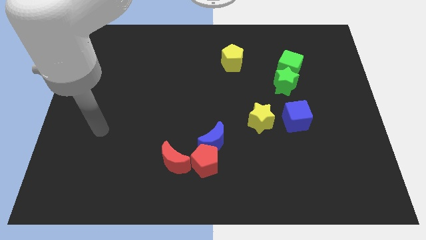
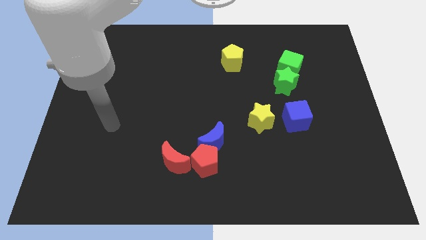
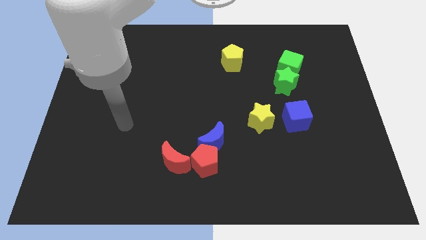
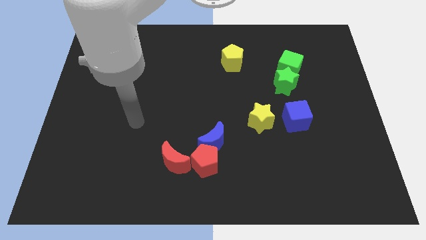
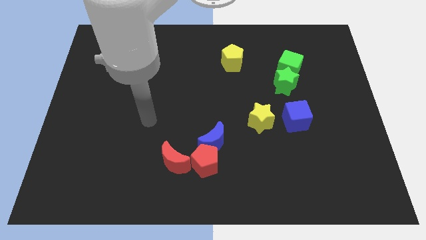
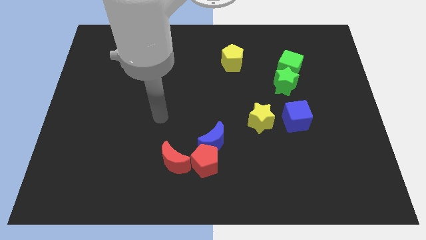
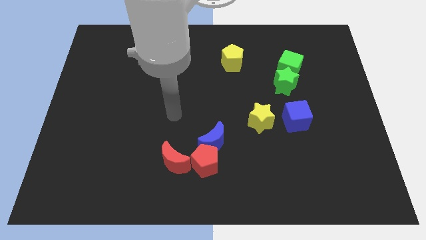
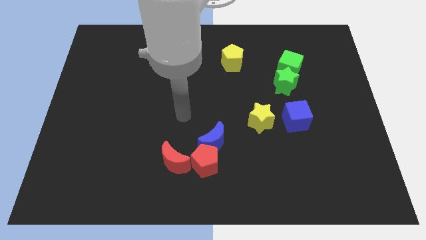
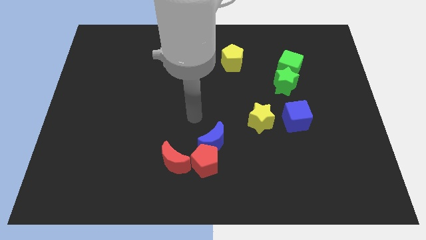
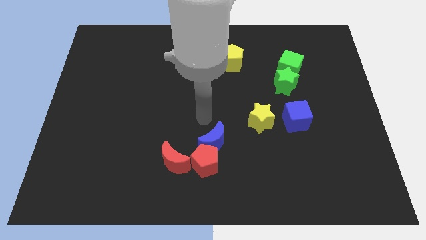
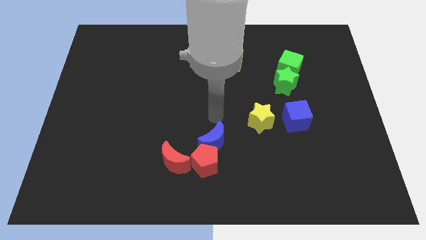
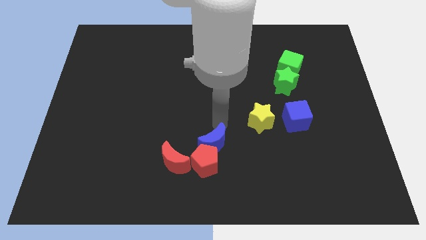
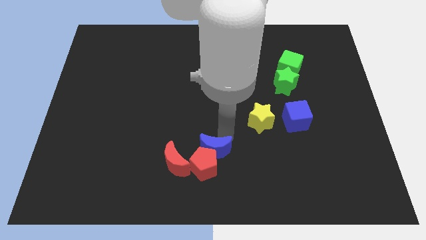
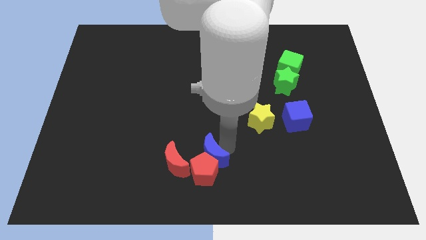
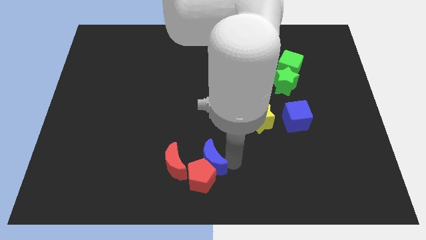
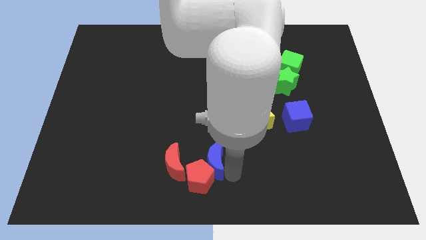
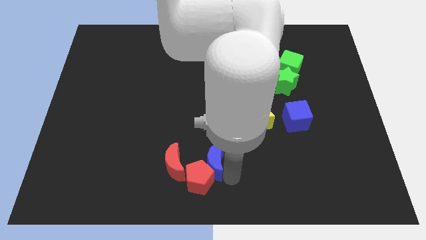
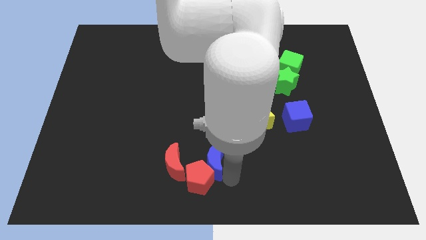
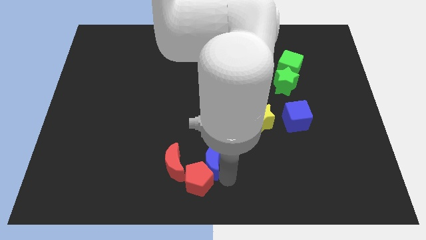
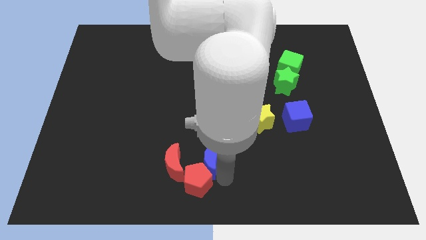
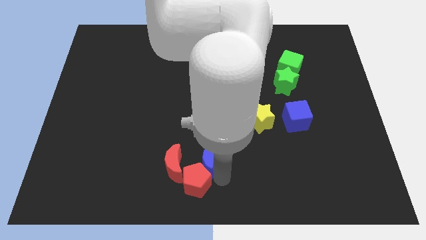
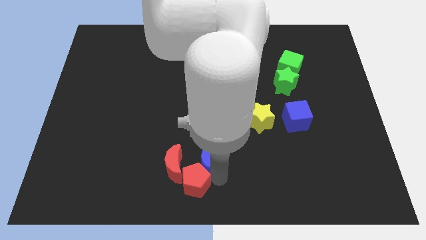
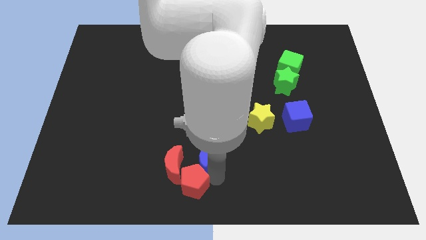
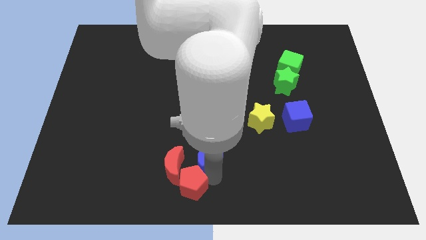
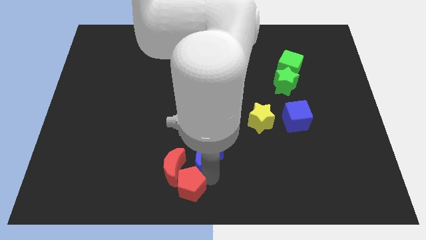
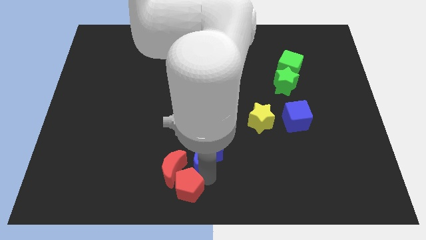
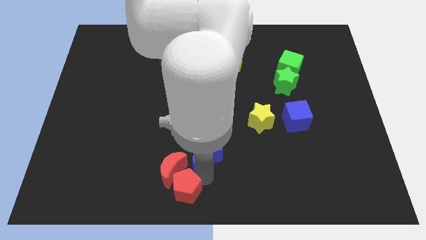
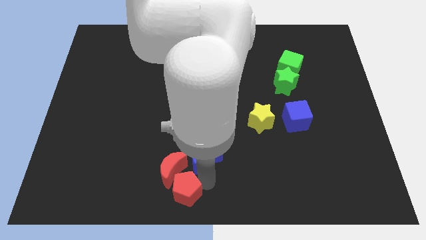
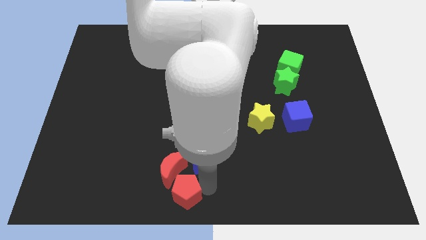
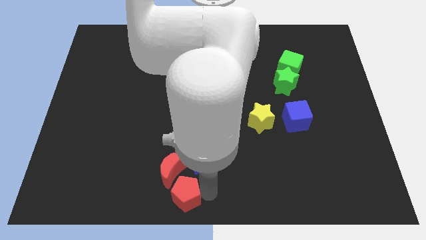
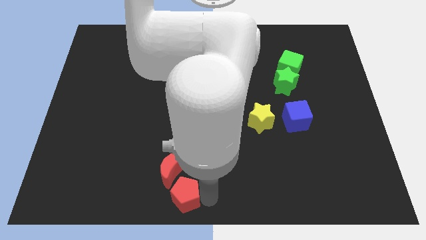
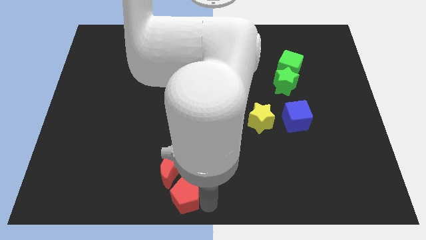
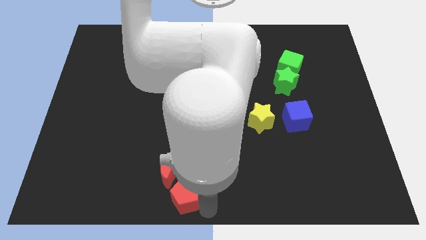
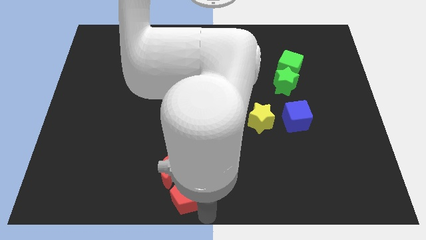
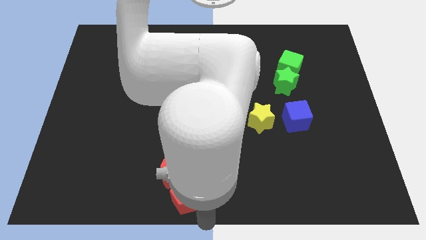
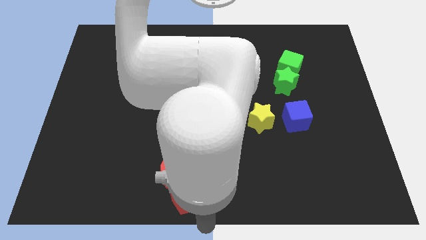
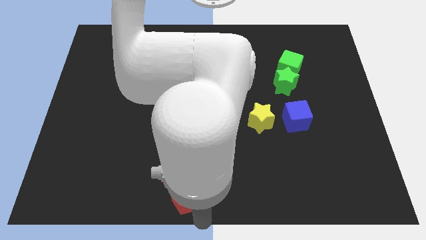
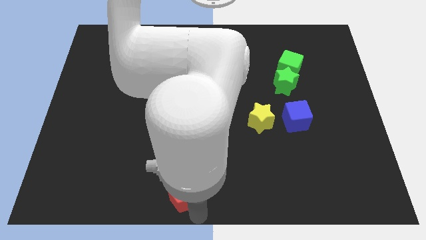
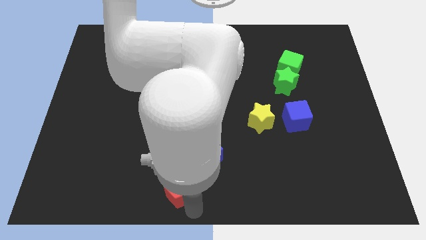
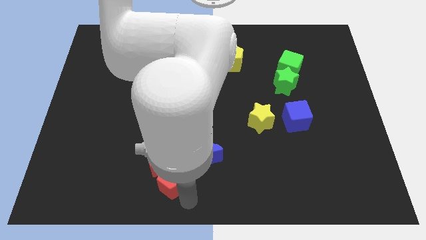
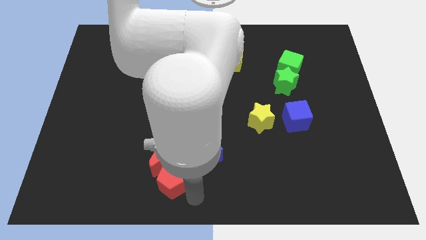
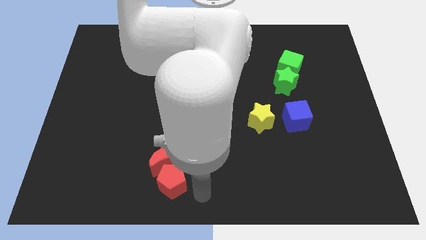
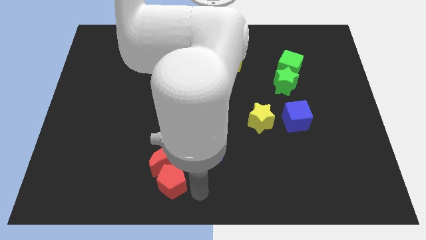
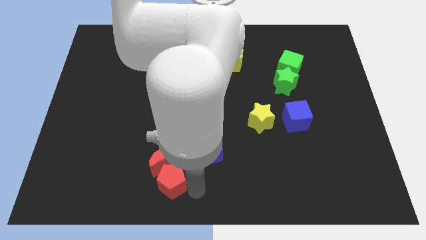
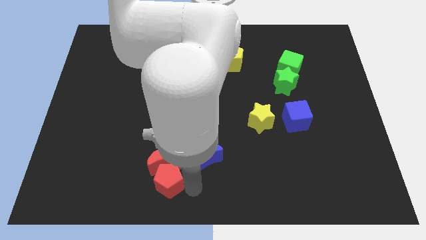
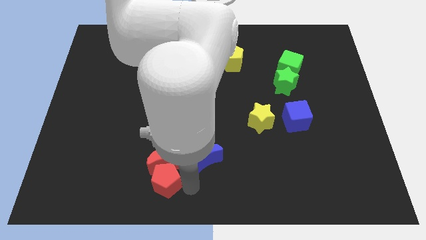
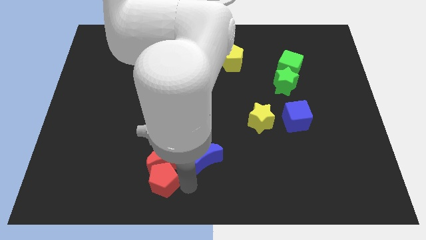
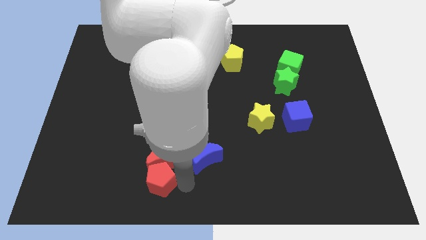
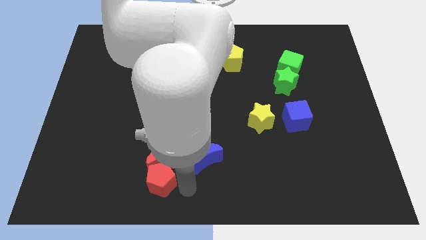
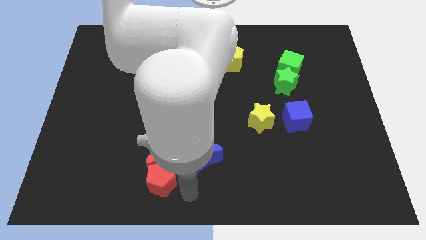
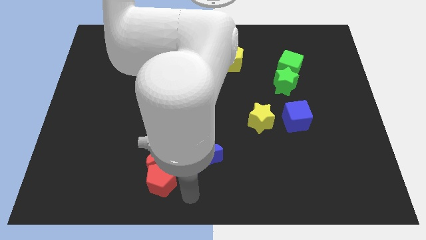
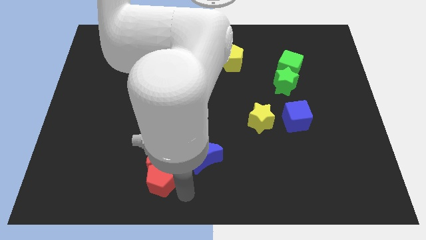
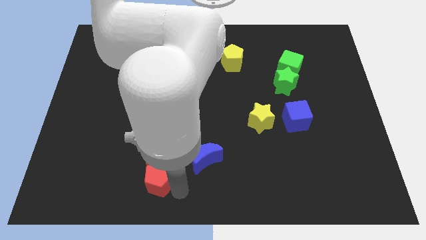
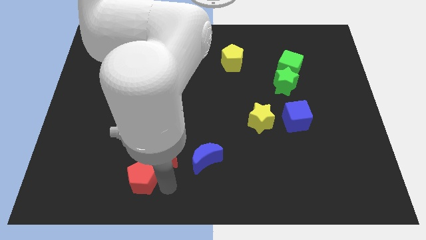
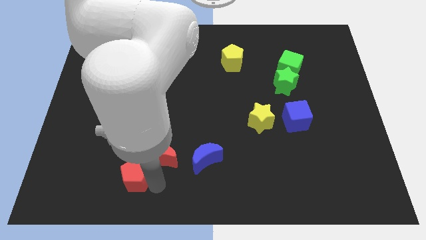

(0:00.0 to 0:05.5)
put the red pentagon just left of the red moon

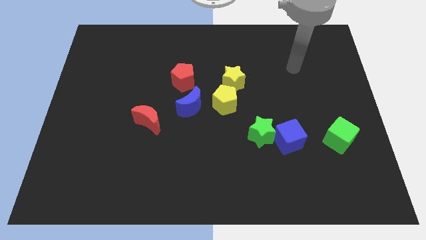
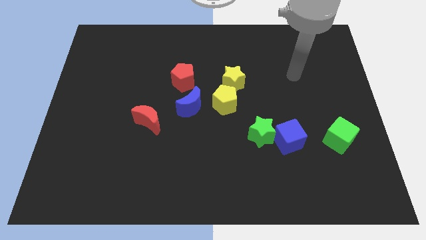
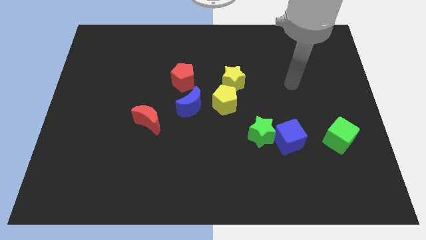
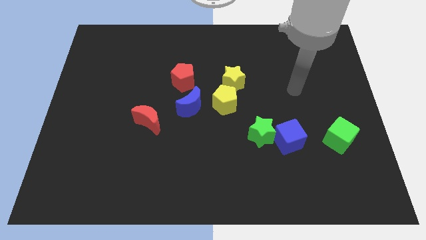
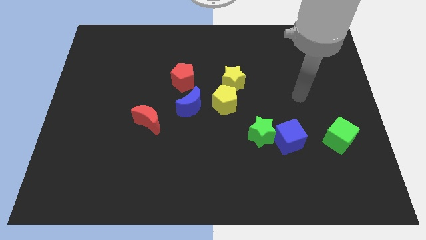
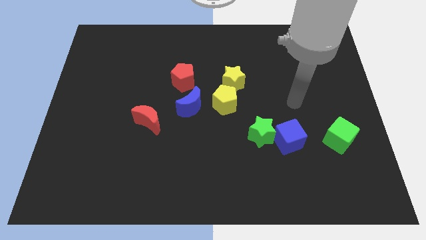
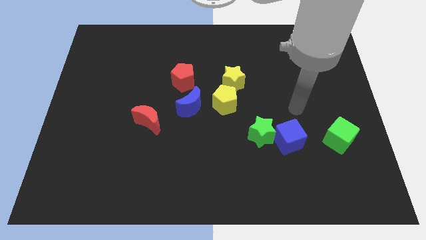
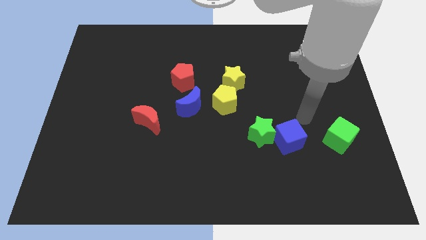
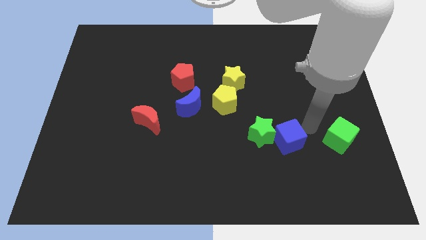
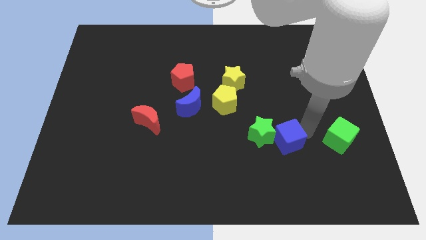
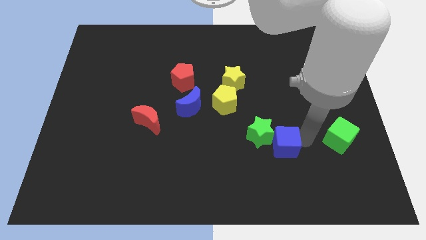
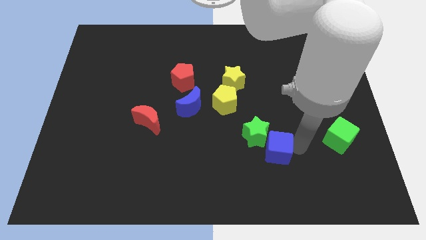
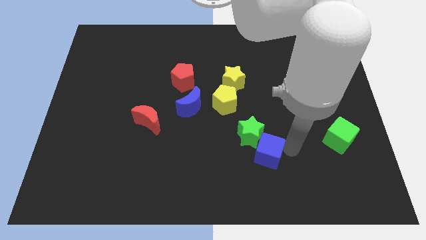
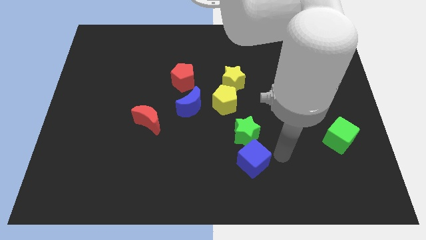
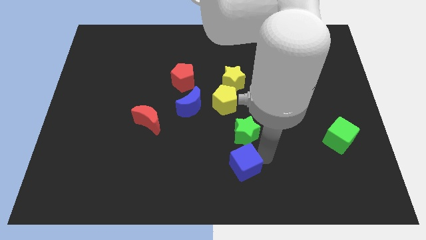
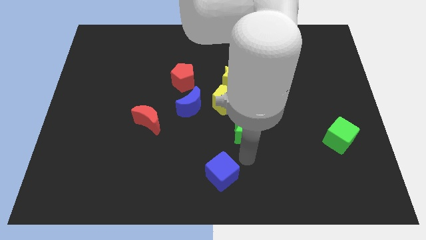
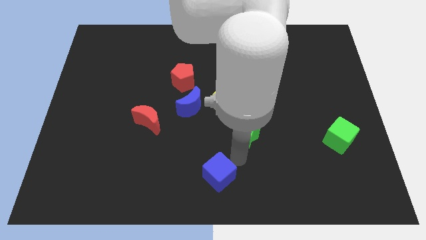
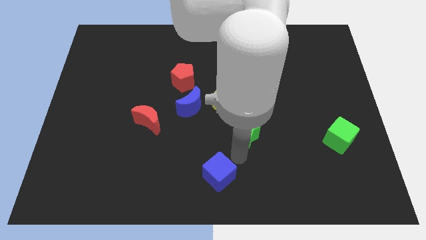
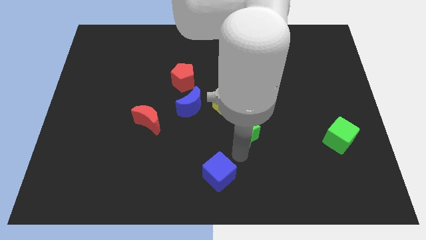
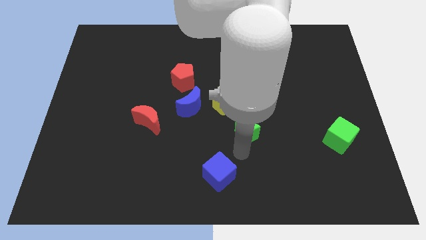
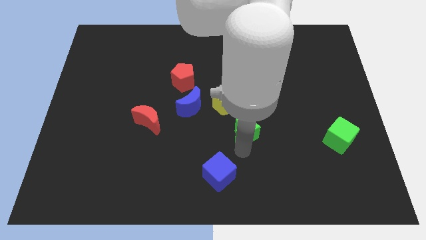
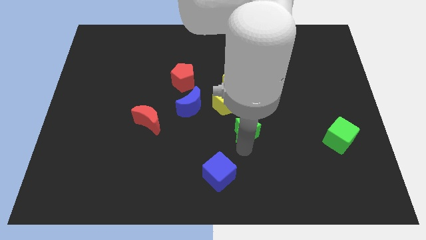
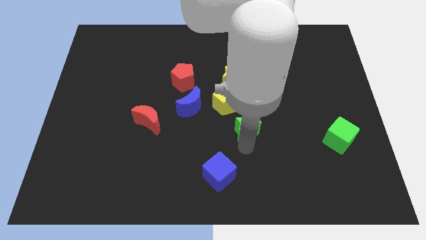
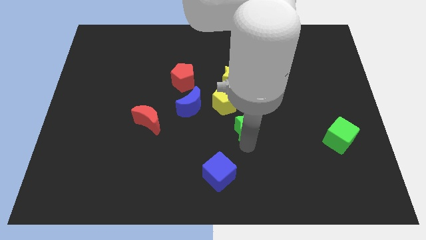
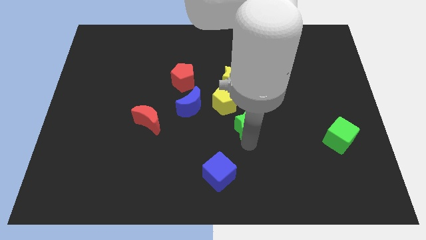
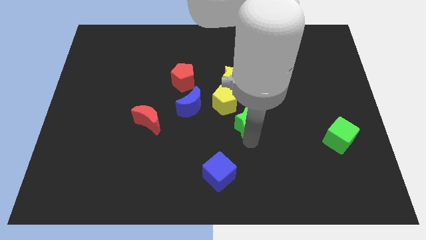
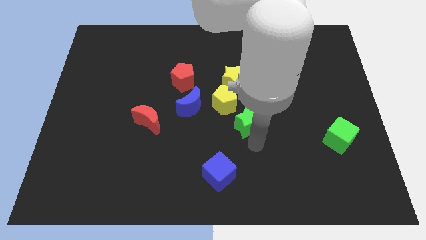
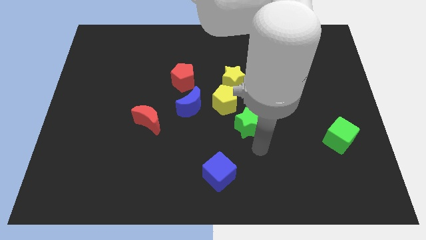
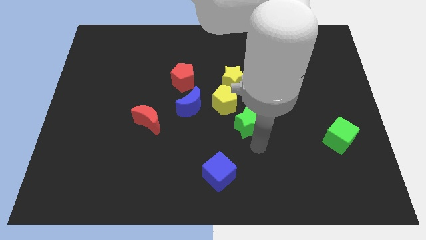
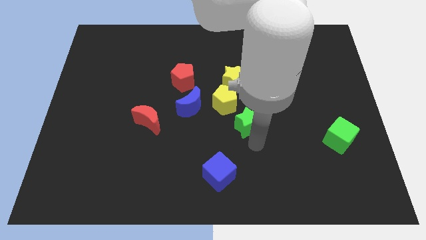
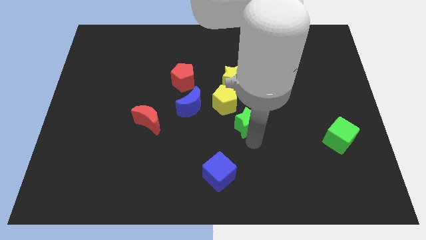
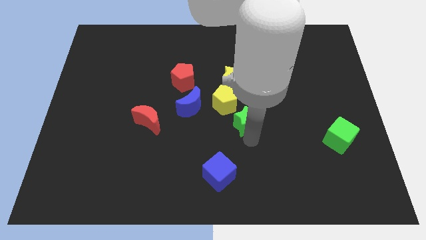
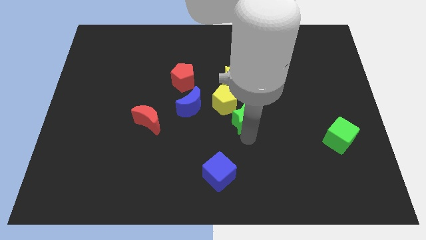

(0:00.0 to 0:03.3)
put the green star to the right side of the blue moon
